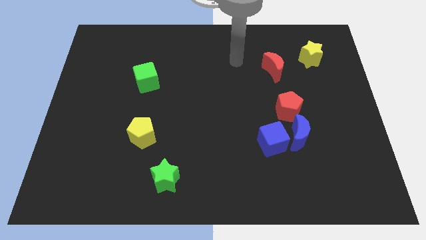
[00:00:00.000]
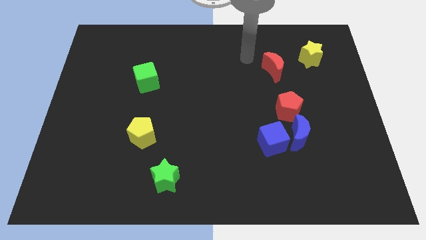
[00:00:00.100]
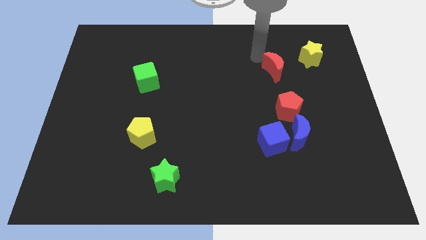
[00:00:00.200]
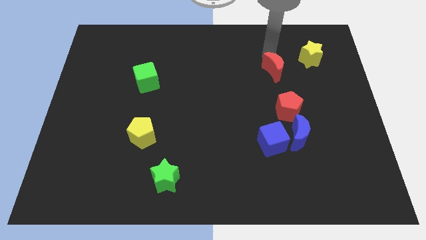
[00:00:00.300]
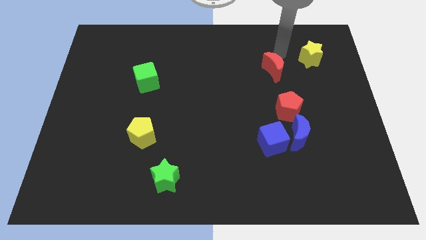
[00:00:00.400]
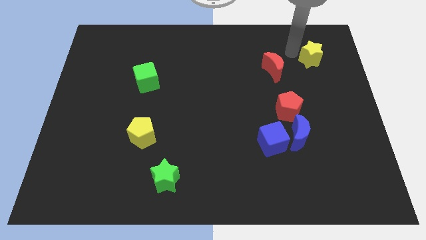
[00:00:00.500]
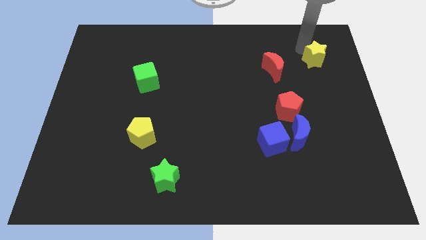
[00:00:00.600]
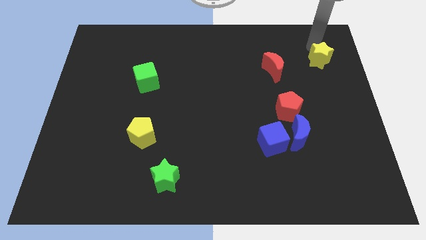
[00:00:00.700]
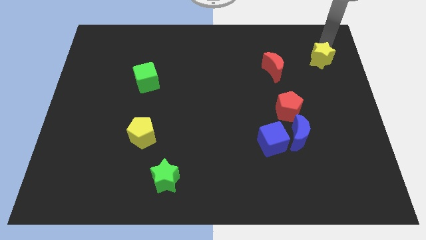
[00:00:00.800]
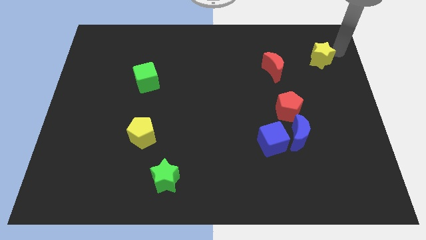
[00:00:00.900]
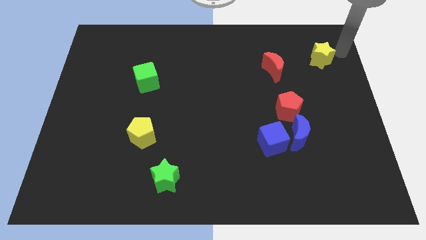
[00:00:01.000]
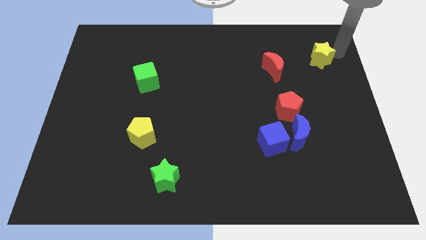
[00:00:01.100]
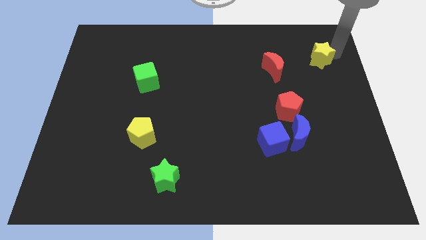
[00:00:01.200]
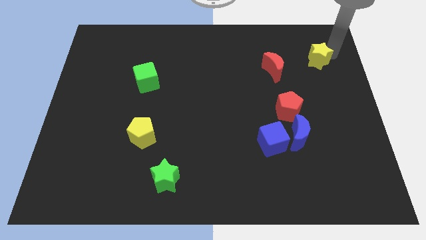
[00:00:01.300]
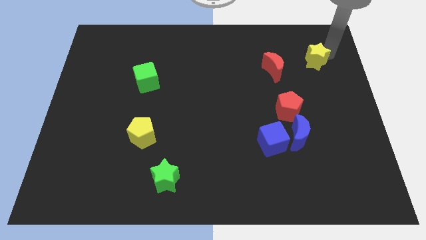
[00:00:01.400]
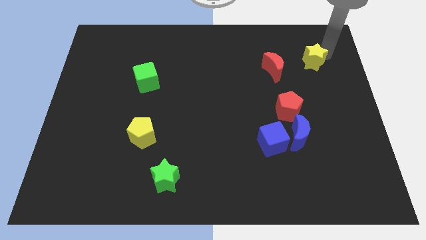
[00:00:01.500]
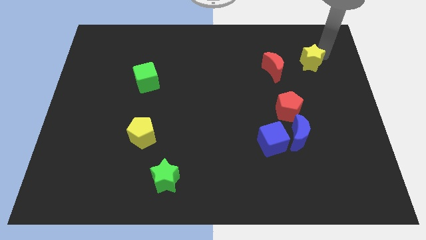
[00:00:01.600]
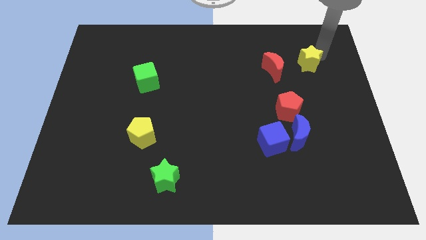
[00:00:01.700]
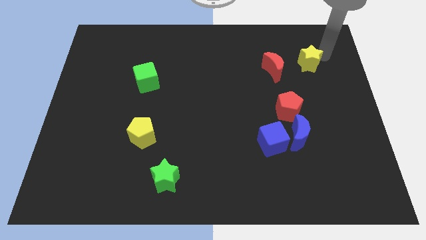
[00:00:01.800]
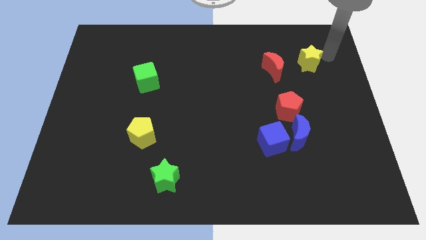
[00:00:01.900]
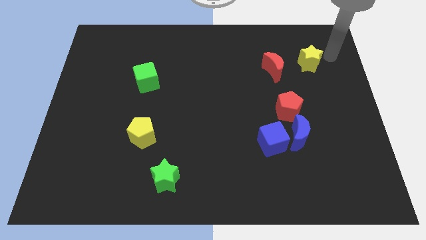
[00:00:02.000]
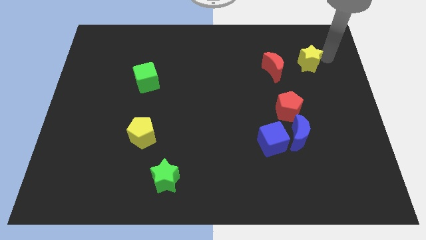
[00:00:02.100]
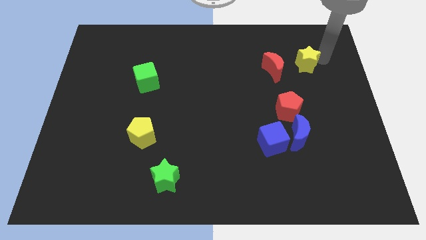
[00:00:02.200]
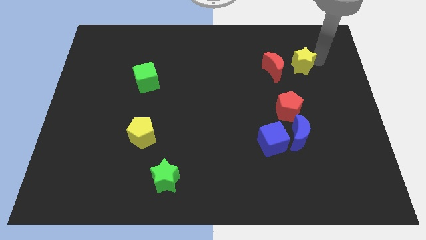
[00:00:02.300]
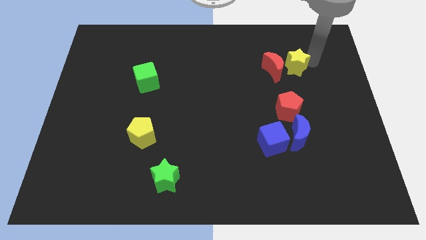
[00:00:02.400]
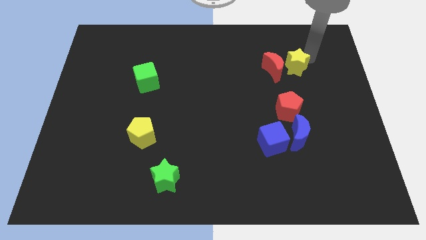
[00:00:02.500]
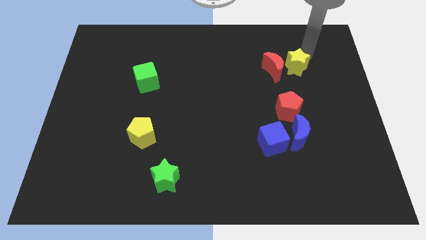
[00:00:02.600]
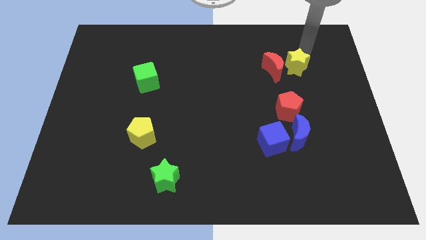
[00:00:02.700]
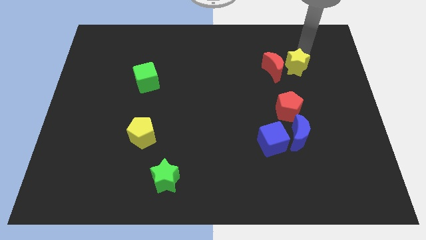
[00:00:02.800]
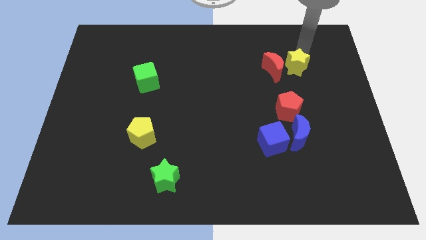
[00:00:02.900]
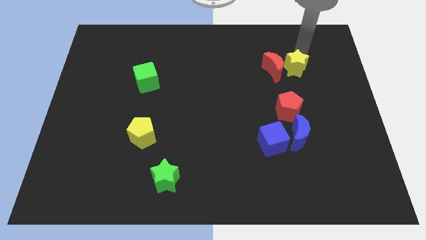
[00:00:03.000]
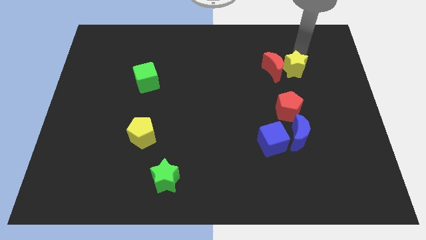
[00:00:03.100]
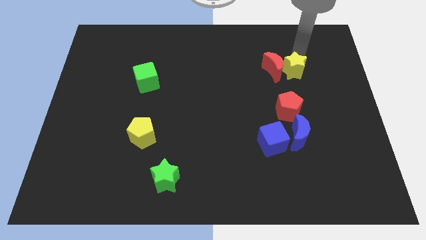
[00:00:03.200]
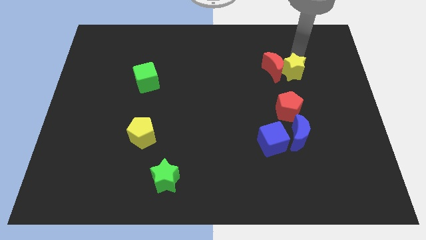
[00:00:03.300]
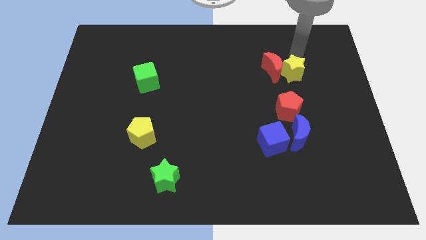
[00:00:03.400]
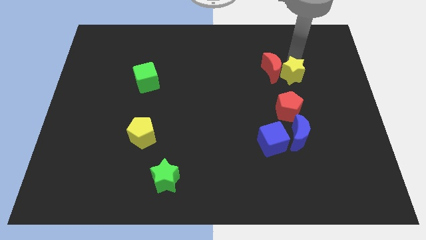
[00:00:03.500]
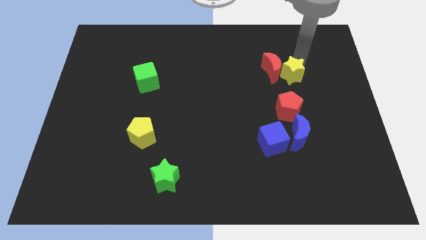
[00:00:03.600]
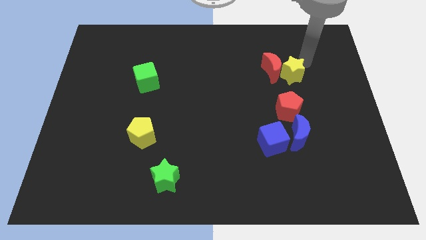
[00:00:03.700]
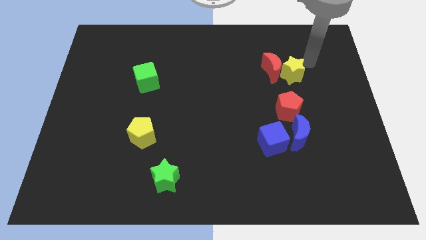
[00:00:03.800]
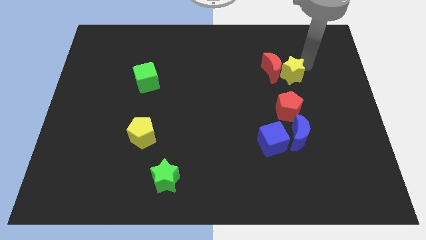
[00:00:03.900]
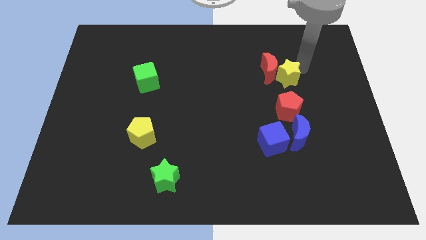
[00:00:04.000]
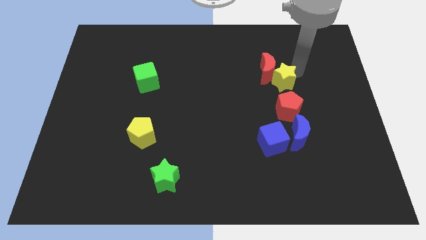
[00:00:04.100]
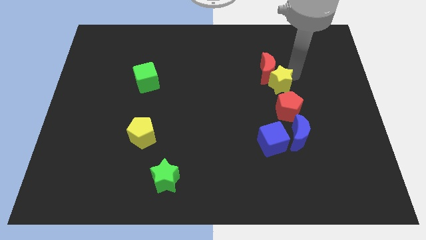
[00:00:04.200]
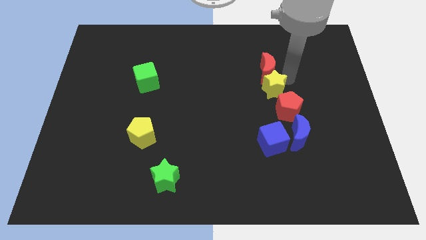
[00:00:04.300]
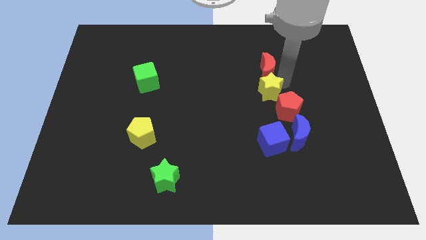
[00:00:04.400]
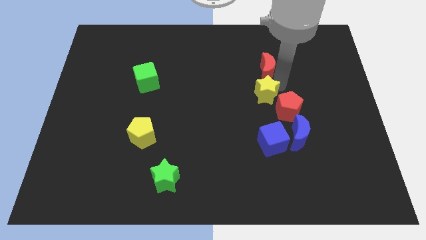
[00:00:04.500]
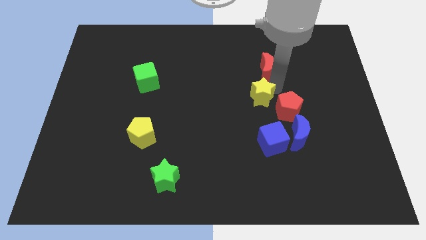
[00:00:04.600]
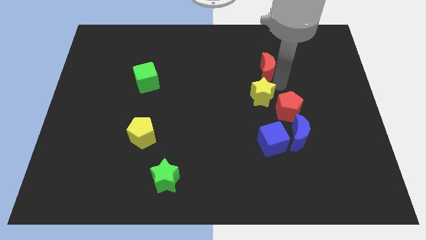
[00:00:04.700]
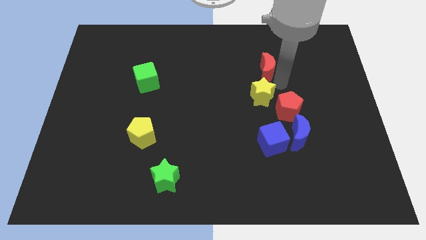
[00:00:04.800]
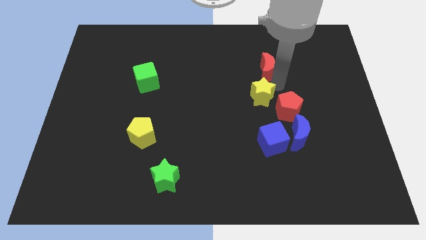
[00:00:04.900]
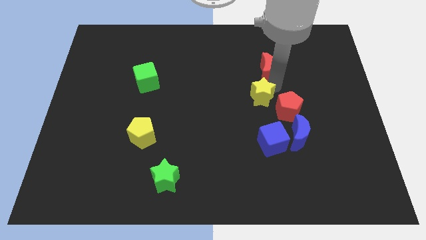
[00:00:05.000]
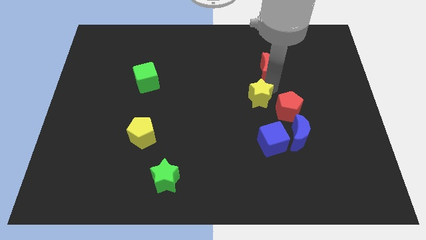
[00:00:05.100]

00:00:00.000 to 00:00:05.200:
move the yellow star down and then to the left

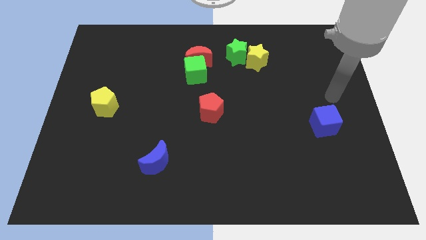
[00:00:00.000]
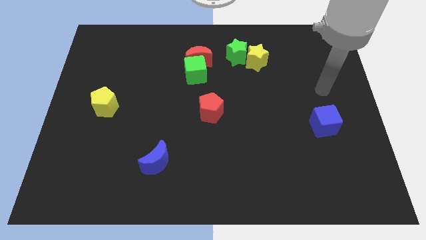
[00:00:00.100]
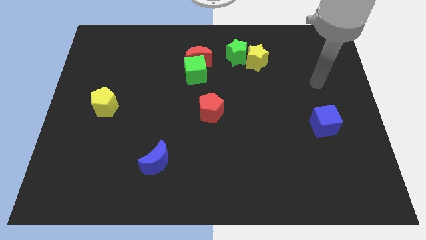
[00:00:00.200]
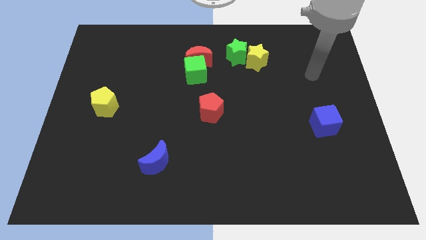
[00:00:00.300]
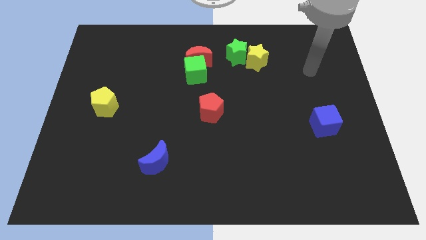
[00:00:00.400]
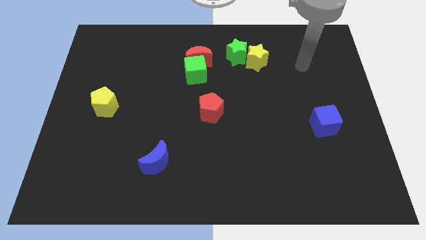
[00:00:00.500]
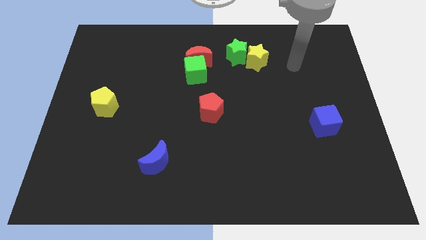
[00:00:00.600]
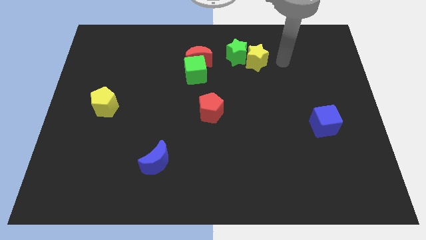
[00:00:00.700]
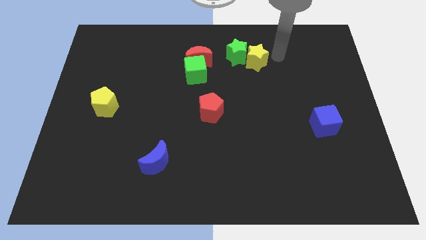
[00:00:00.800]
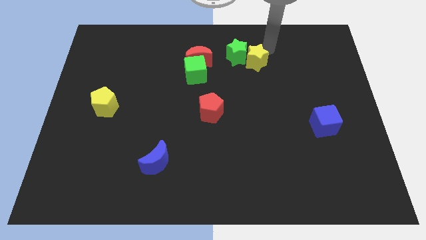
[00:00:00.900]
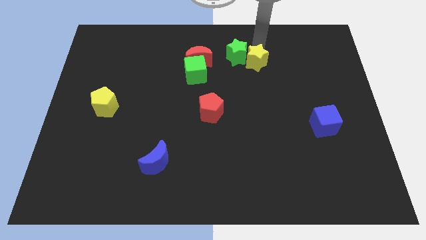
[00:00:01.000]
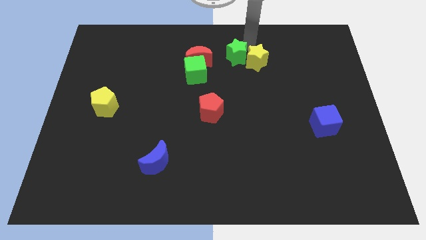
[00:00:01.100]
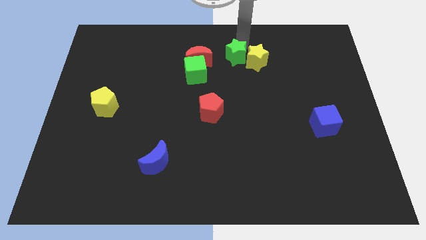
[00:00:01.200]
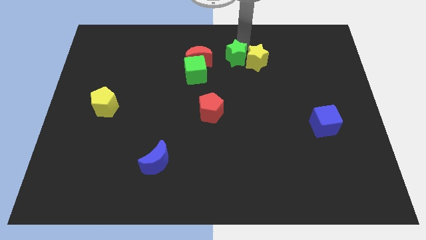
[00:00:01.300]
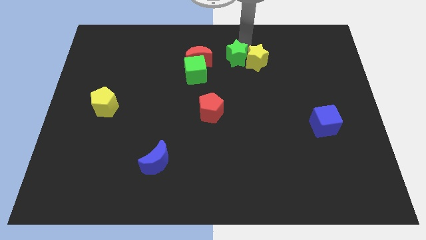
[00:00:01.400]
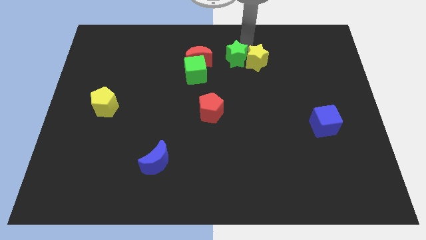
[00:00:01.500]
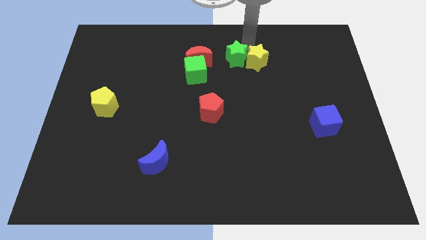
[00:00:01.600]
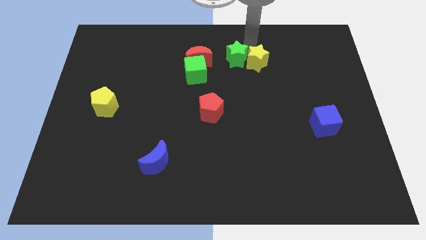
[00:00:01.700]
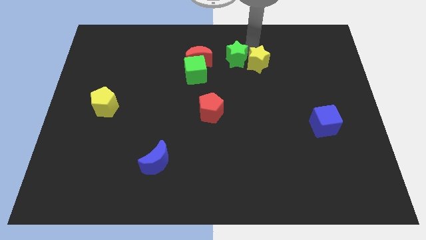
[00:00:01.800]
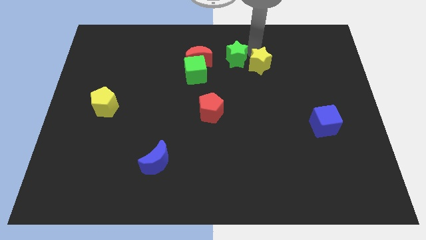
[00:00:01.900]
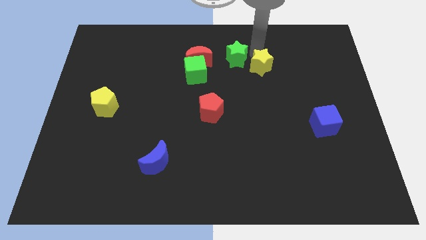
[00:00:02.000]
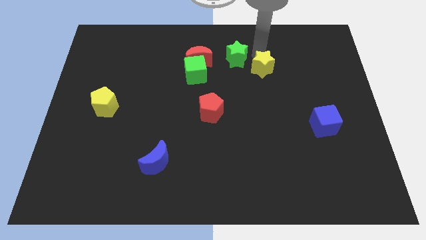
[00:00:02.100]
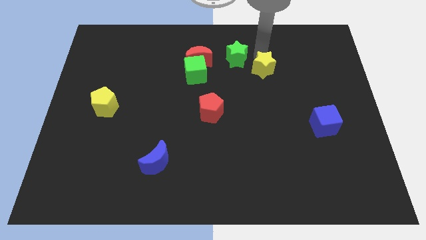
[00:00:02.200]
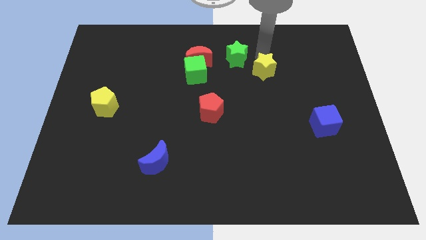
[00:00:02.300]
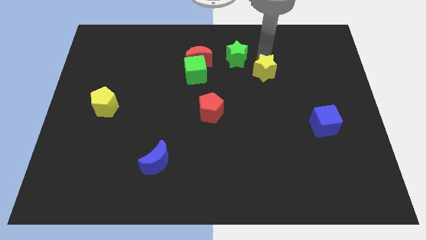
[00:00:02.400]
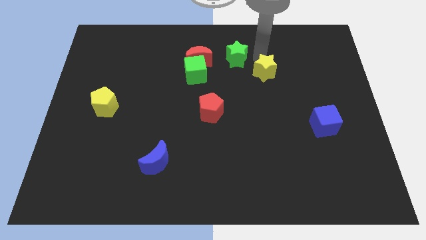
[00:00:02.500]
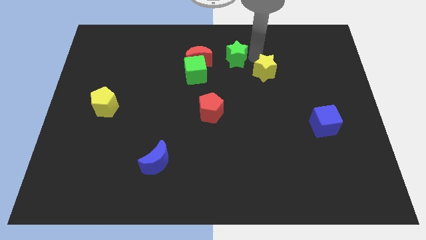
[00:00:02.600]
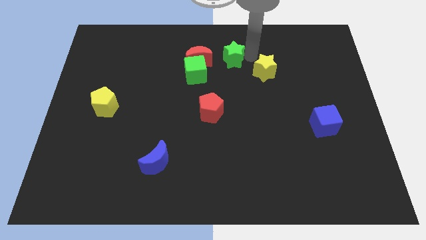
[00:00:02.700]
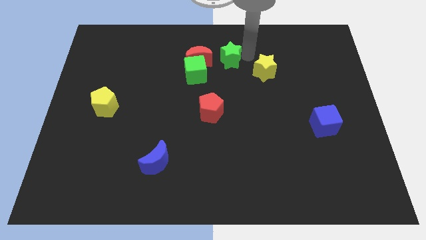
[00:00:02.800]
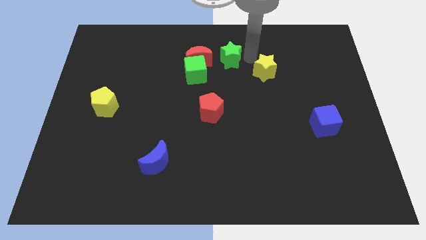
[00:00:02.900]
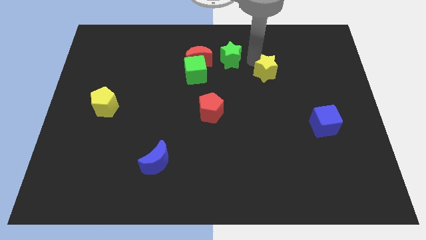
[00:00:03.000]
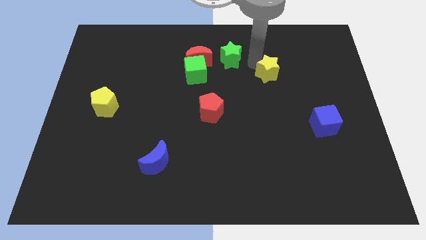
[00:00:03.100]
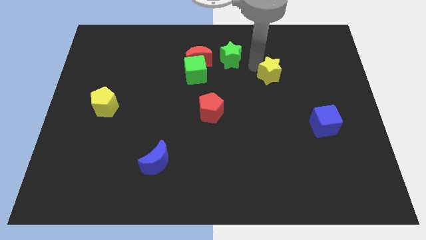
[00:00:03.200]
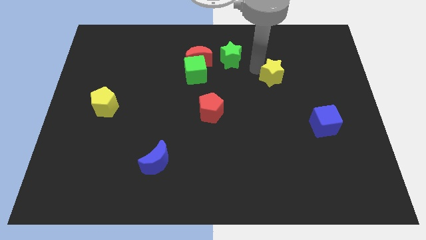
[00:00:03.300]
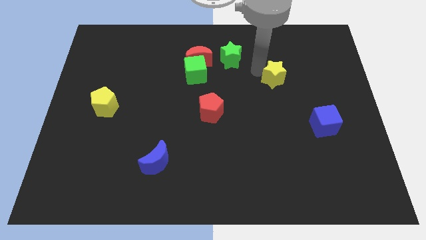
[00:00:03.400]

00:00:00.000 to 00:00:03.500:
slightly move the yellow star down and to the right diagonally
